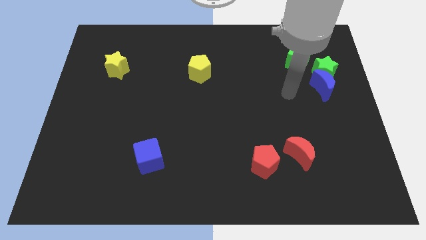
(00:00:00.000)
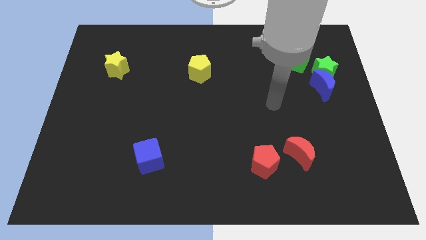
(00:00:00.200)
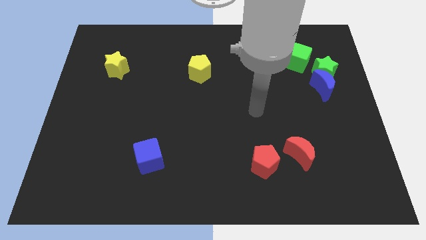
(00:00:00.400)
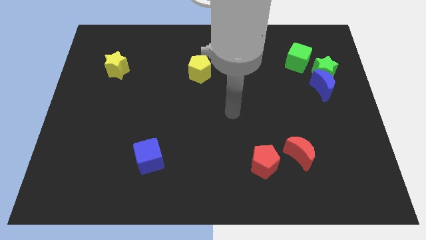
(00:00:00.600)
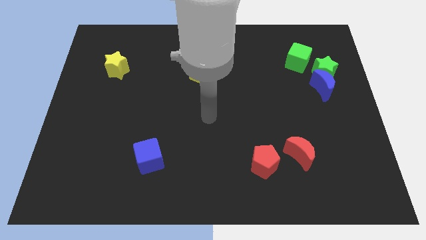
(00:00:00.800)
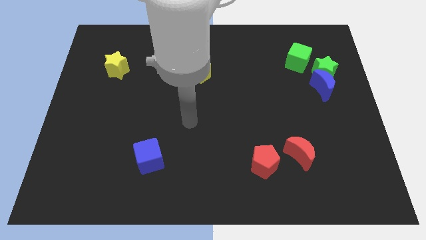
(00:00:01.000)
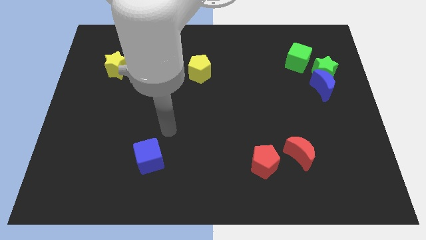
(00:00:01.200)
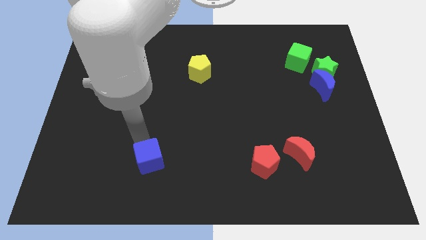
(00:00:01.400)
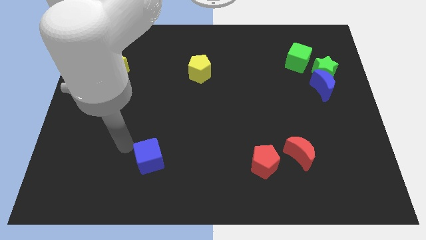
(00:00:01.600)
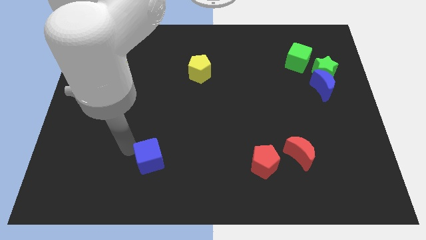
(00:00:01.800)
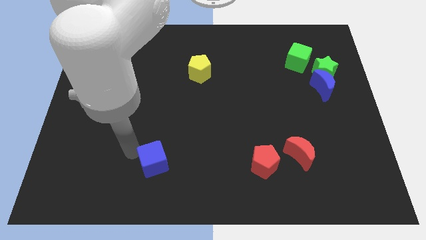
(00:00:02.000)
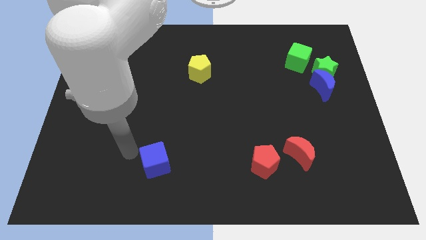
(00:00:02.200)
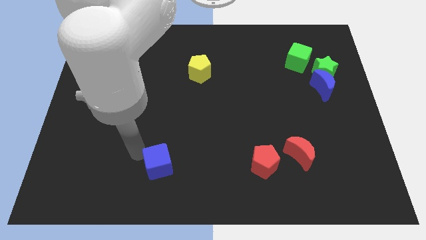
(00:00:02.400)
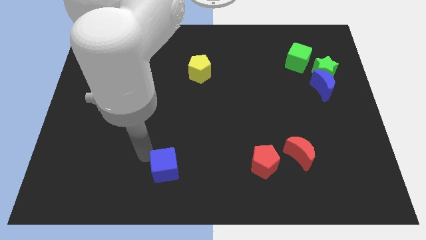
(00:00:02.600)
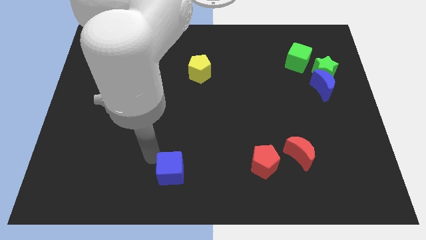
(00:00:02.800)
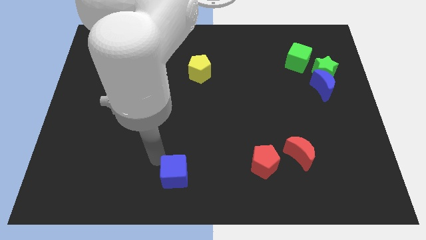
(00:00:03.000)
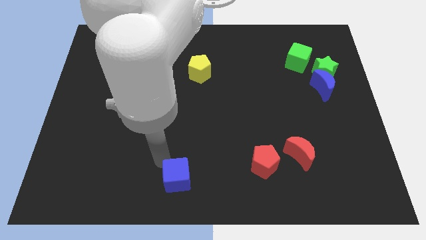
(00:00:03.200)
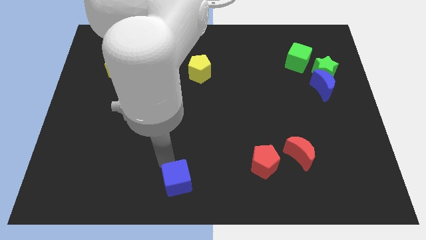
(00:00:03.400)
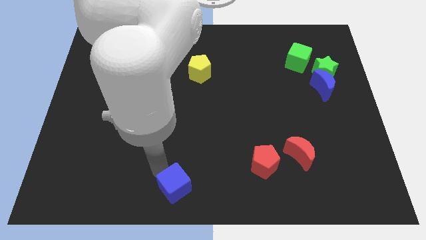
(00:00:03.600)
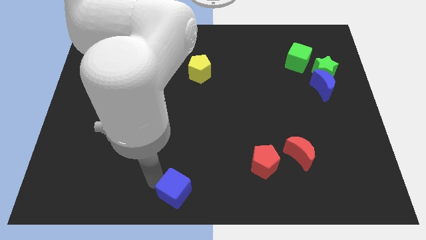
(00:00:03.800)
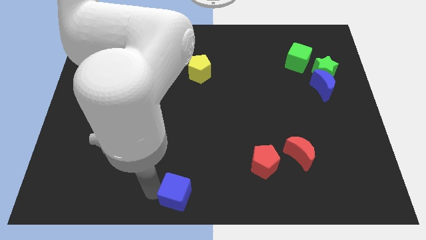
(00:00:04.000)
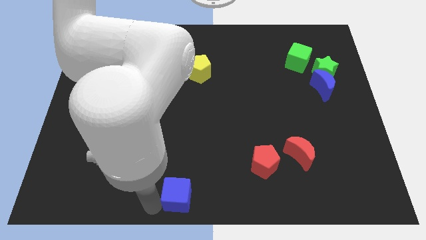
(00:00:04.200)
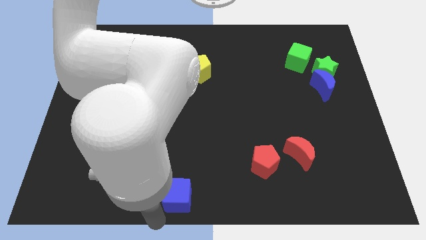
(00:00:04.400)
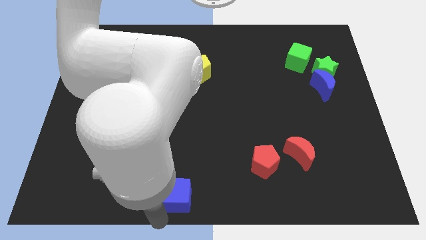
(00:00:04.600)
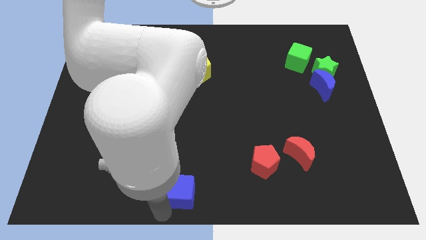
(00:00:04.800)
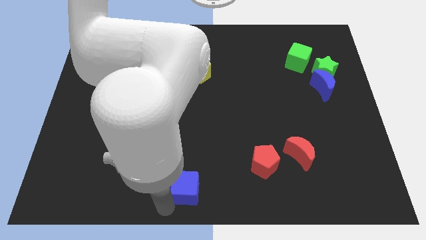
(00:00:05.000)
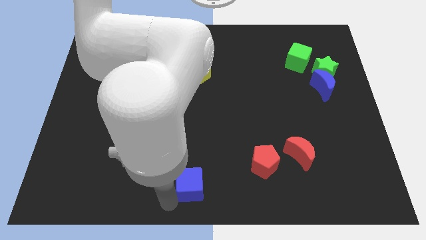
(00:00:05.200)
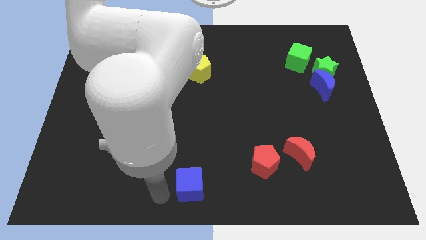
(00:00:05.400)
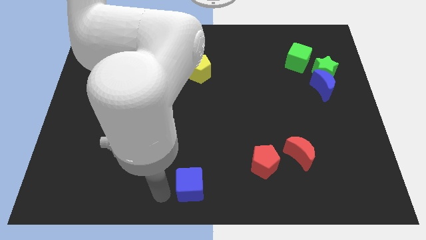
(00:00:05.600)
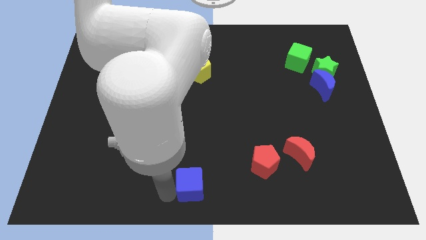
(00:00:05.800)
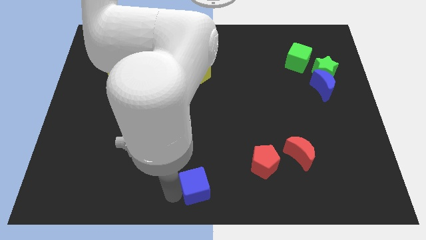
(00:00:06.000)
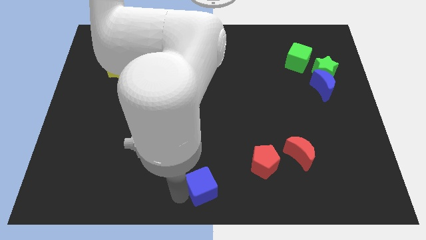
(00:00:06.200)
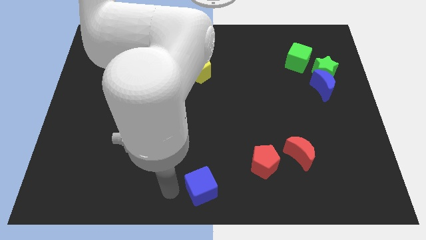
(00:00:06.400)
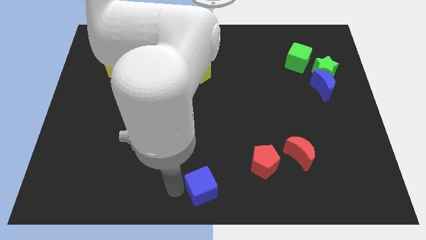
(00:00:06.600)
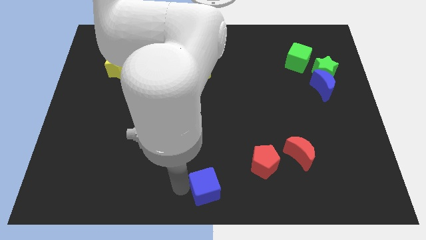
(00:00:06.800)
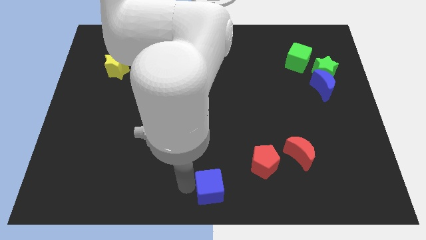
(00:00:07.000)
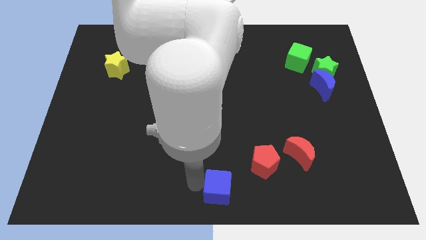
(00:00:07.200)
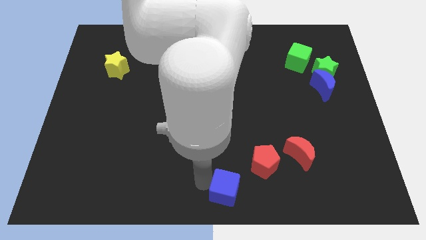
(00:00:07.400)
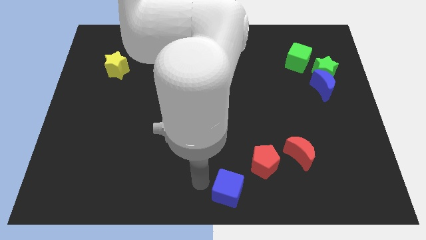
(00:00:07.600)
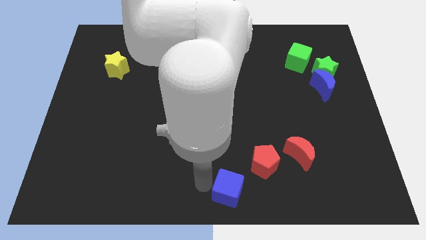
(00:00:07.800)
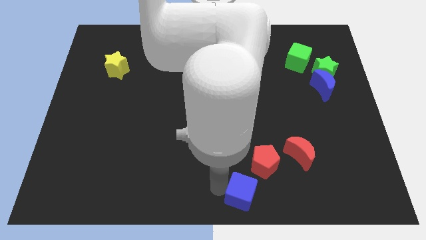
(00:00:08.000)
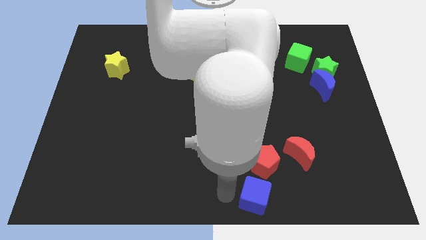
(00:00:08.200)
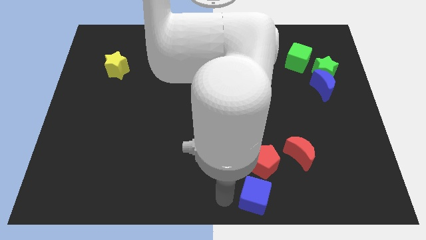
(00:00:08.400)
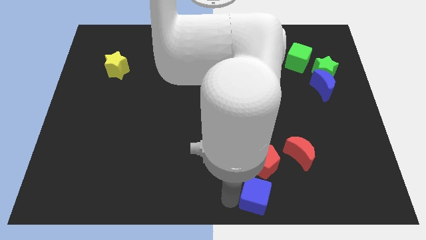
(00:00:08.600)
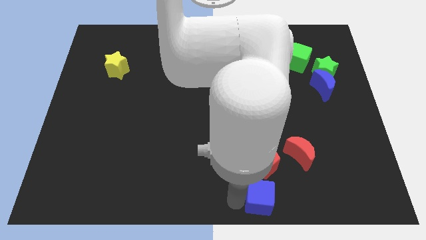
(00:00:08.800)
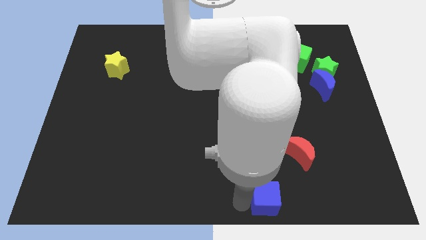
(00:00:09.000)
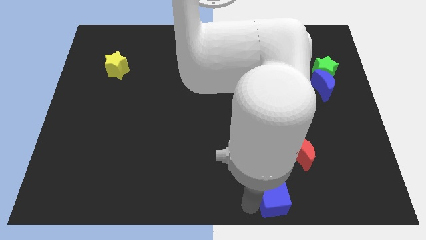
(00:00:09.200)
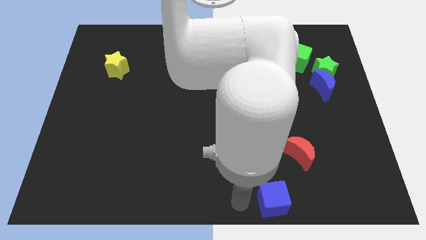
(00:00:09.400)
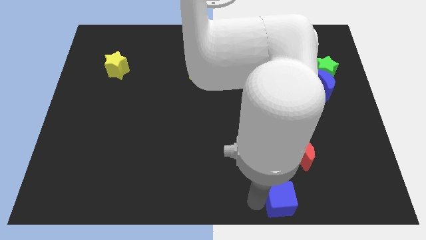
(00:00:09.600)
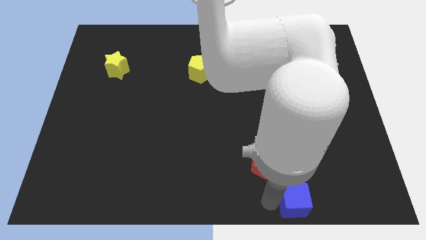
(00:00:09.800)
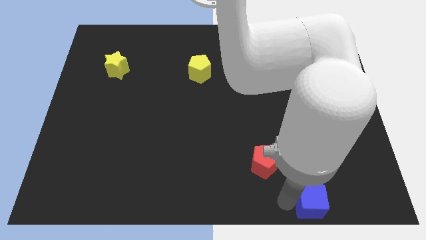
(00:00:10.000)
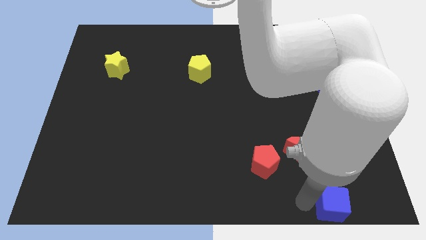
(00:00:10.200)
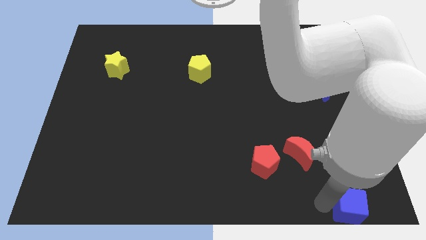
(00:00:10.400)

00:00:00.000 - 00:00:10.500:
move the blue cube to the bottom right corner
